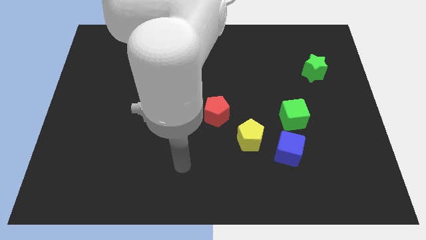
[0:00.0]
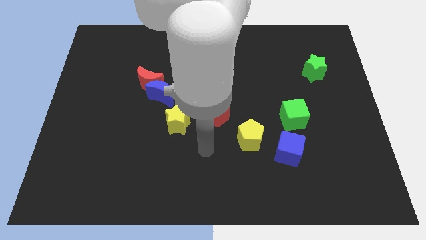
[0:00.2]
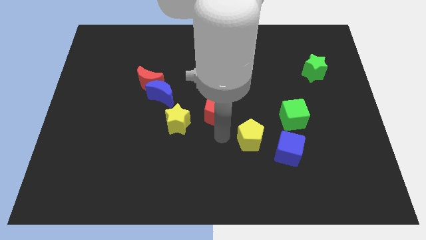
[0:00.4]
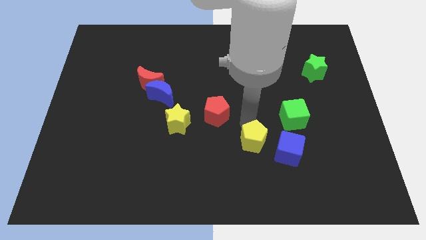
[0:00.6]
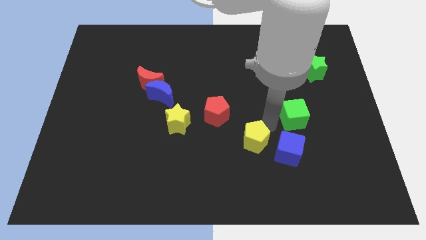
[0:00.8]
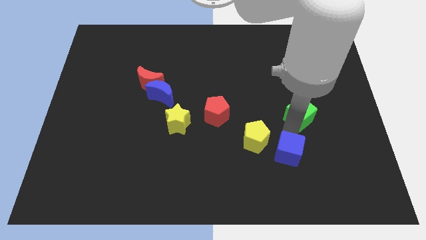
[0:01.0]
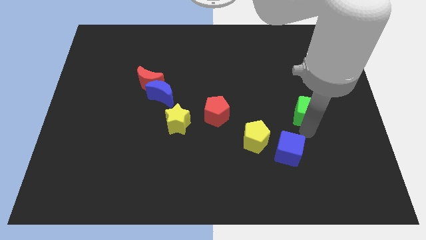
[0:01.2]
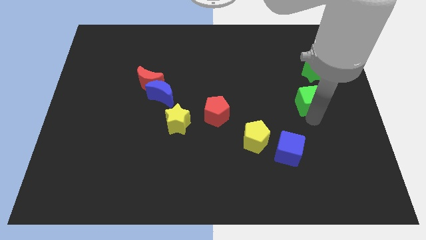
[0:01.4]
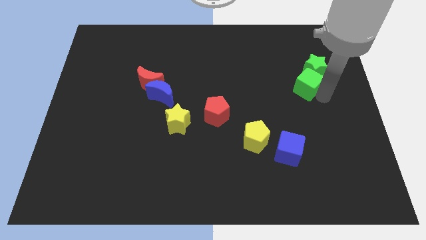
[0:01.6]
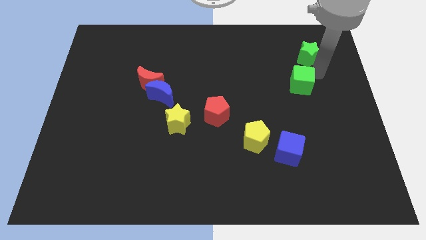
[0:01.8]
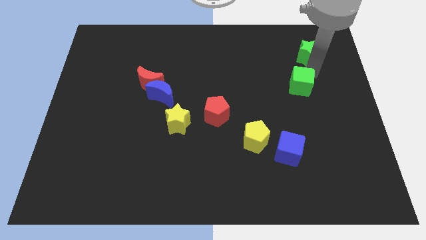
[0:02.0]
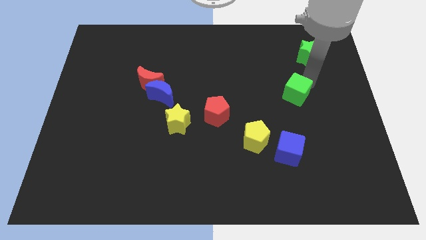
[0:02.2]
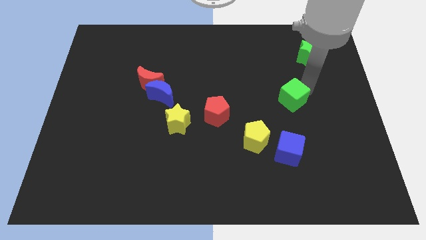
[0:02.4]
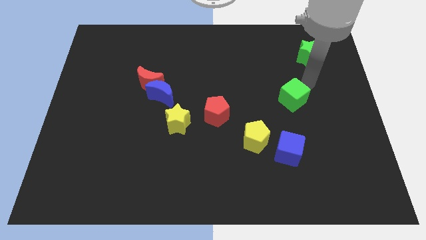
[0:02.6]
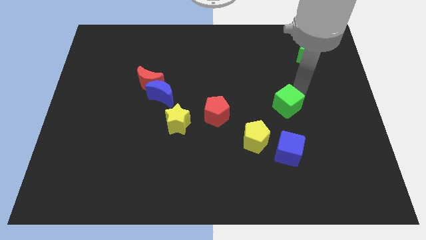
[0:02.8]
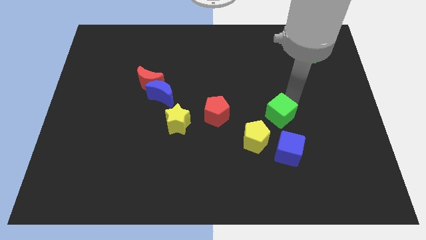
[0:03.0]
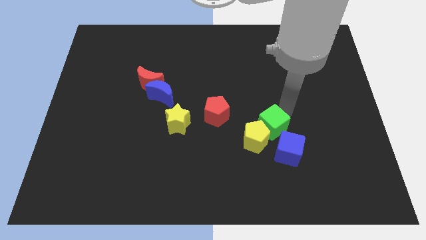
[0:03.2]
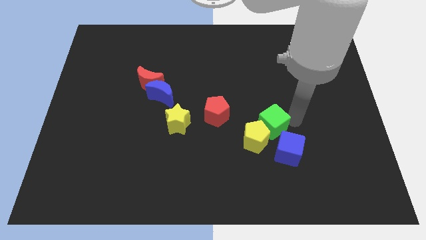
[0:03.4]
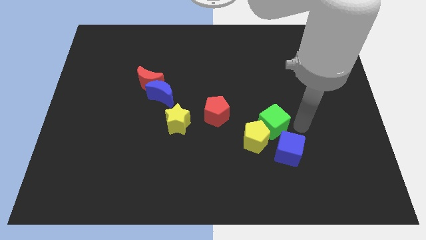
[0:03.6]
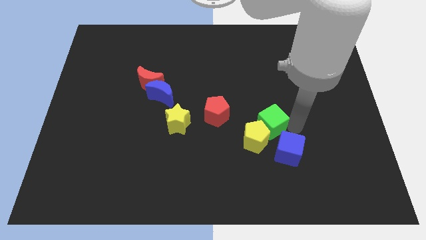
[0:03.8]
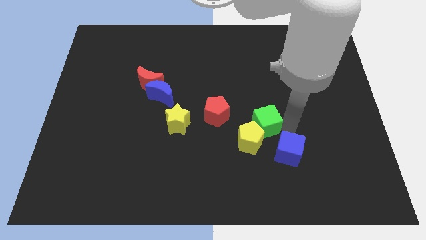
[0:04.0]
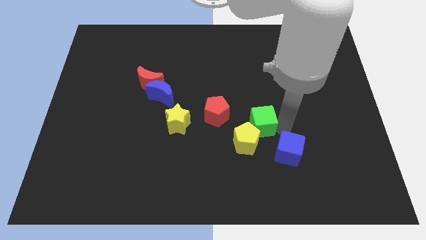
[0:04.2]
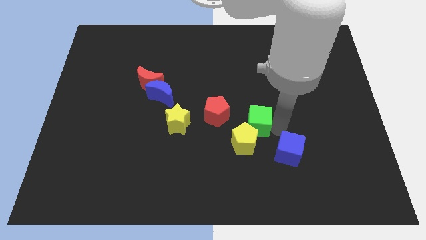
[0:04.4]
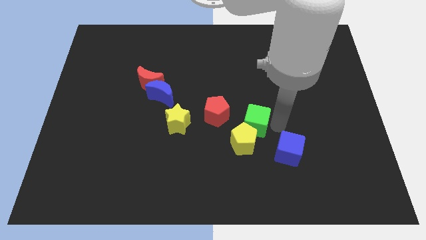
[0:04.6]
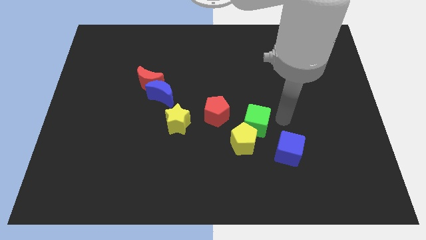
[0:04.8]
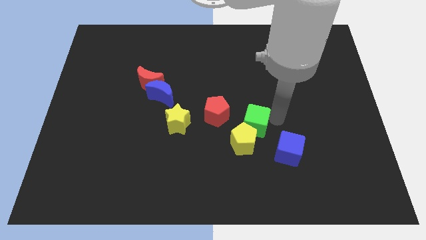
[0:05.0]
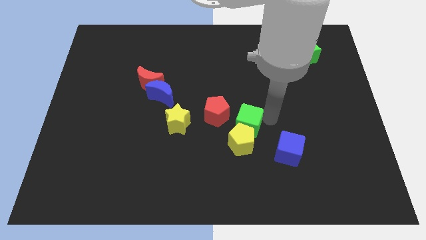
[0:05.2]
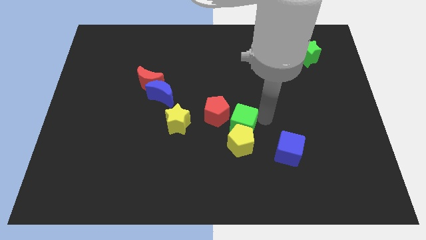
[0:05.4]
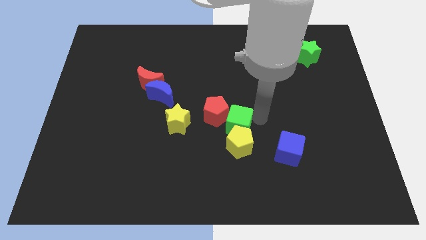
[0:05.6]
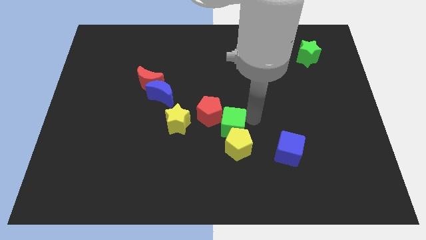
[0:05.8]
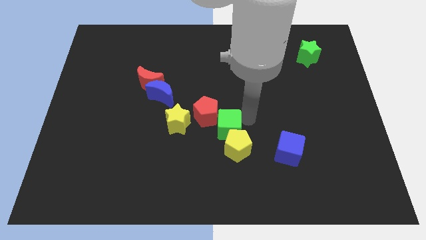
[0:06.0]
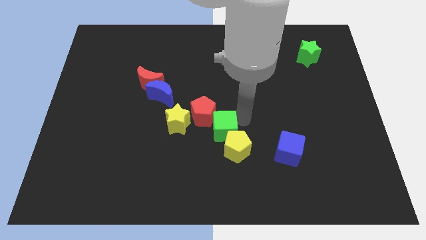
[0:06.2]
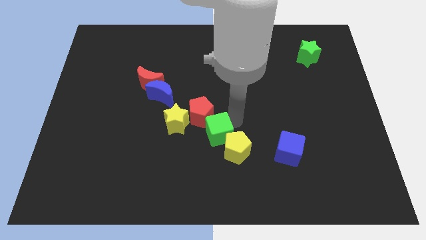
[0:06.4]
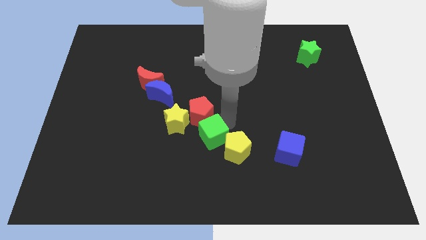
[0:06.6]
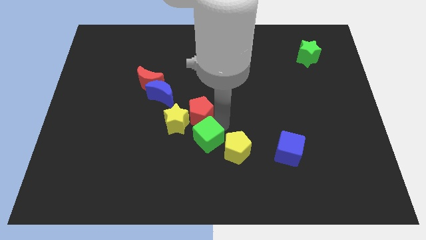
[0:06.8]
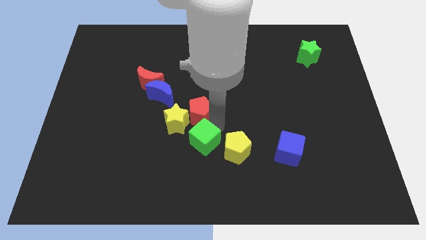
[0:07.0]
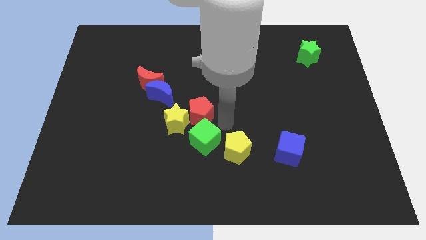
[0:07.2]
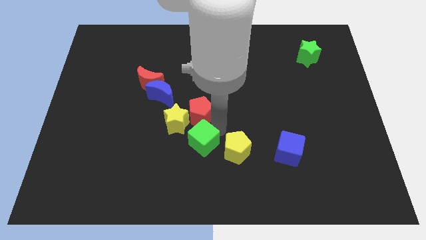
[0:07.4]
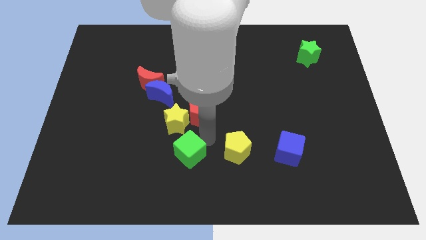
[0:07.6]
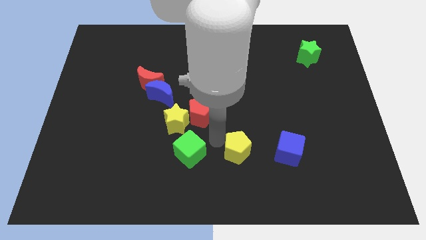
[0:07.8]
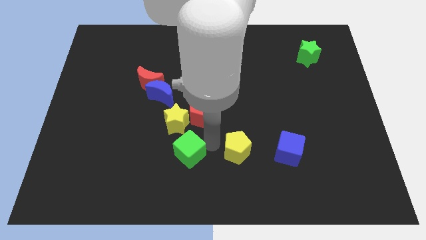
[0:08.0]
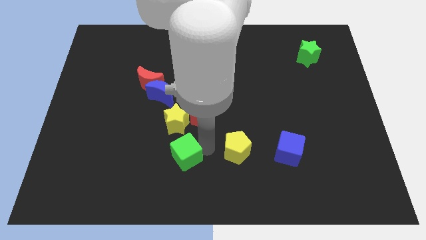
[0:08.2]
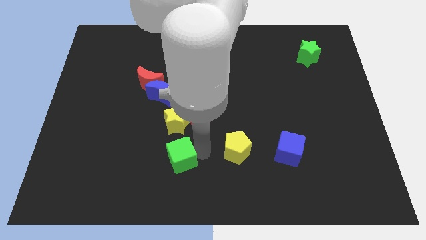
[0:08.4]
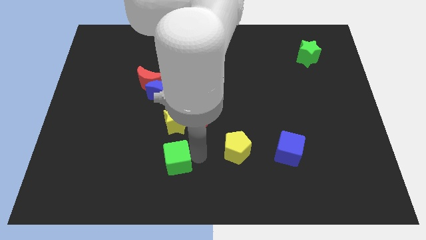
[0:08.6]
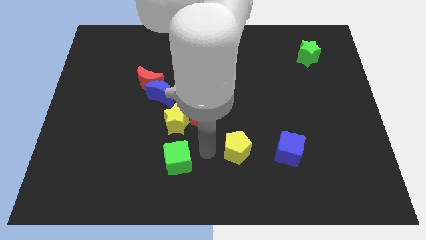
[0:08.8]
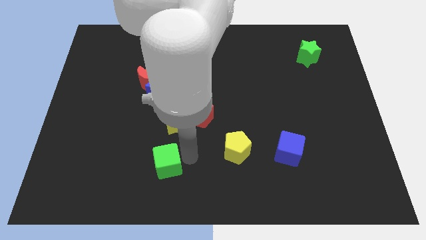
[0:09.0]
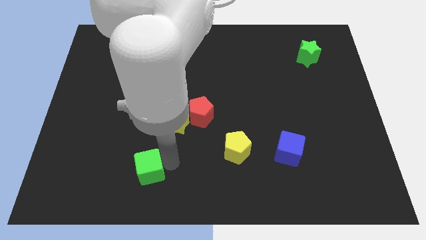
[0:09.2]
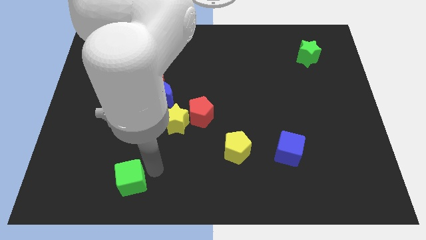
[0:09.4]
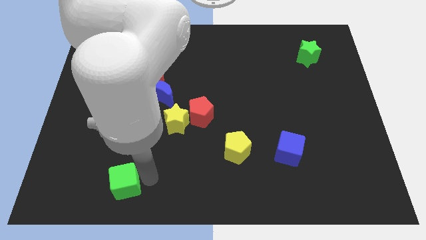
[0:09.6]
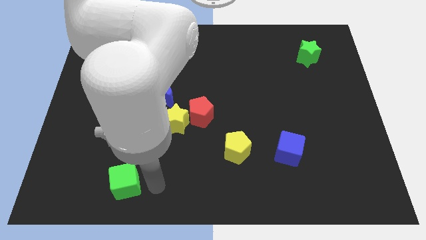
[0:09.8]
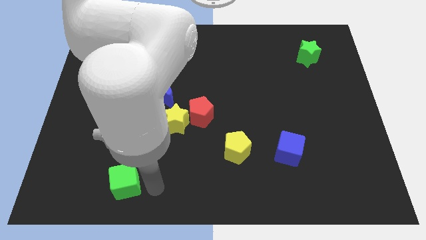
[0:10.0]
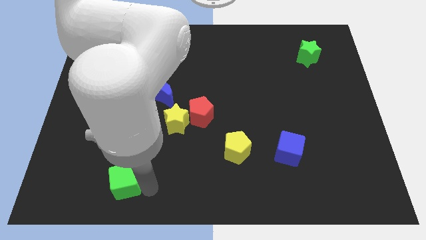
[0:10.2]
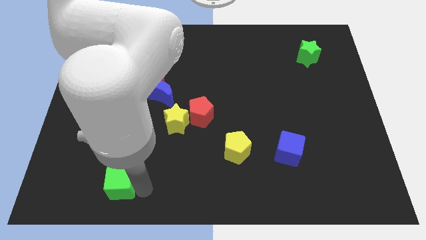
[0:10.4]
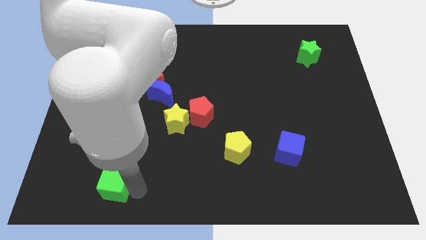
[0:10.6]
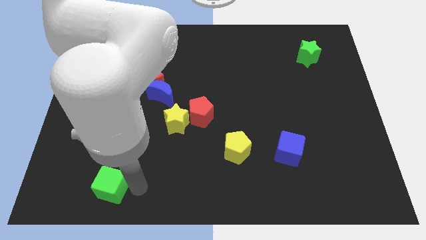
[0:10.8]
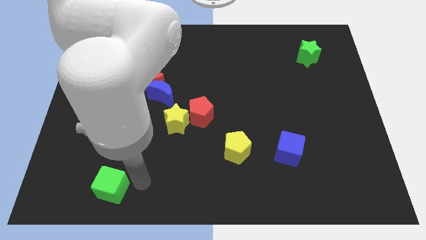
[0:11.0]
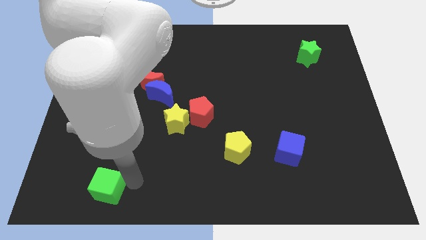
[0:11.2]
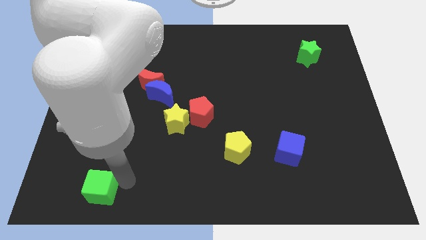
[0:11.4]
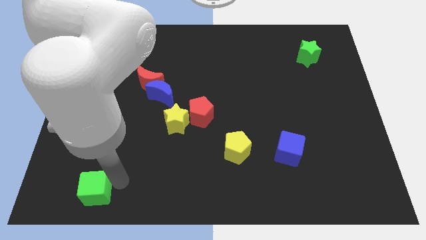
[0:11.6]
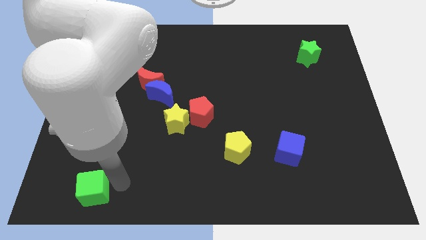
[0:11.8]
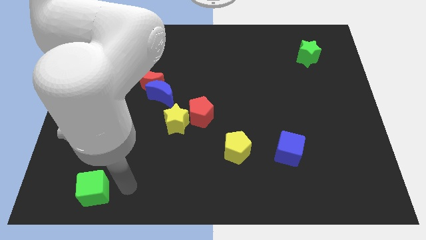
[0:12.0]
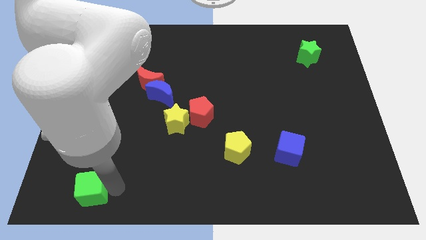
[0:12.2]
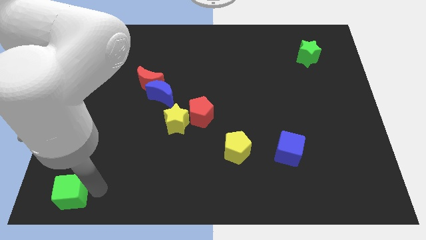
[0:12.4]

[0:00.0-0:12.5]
put the green cube to the bottom left
